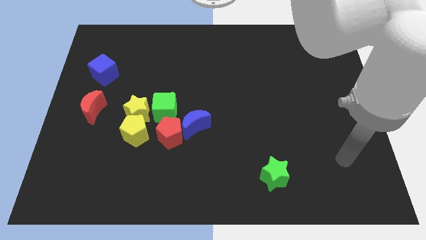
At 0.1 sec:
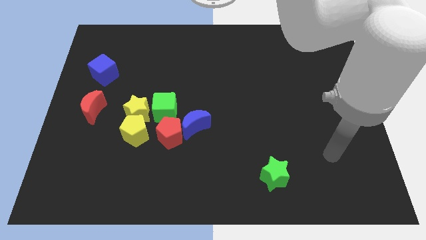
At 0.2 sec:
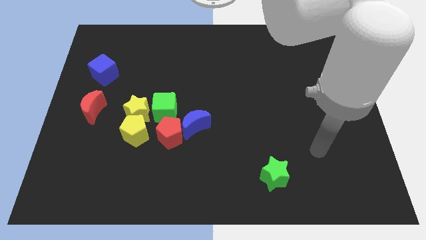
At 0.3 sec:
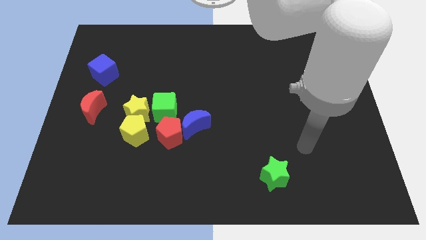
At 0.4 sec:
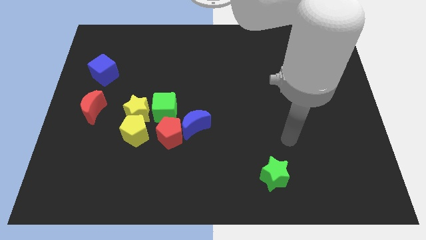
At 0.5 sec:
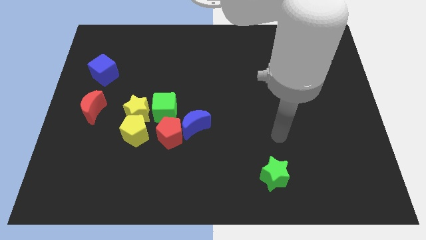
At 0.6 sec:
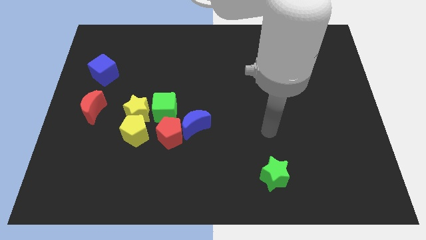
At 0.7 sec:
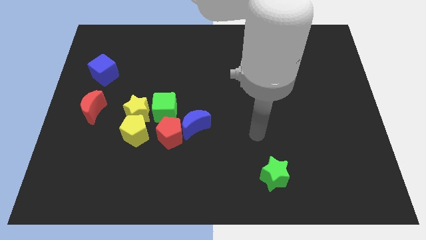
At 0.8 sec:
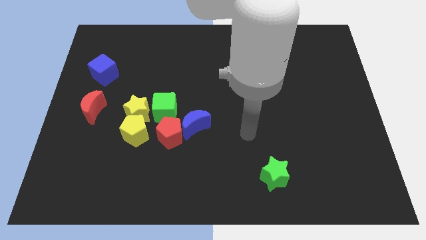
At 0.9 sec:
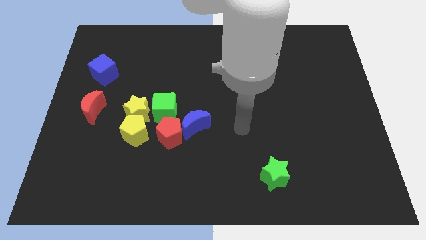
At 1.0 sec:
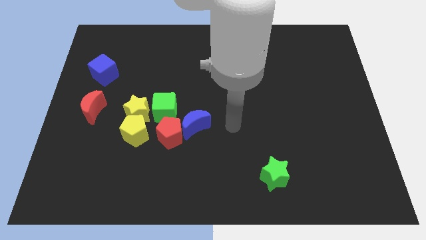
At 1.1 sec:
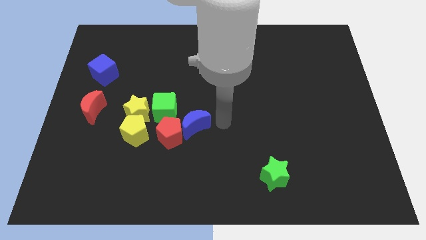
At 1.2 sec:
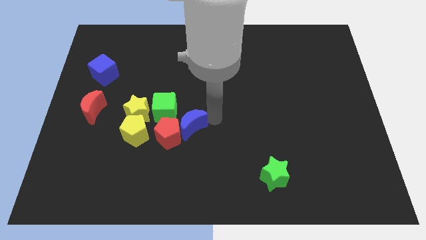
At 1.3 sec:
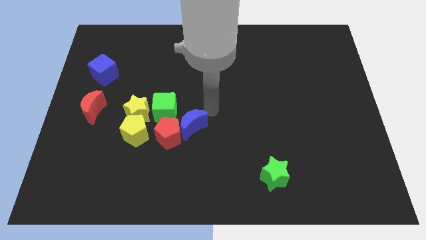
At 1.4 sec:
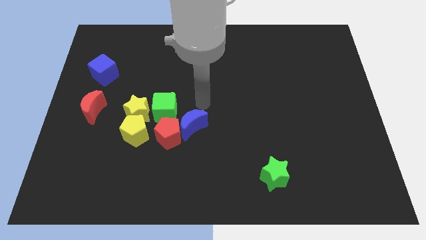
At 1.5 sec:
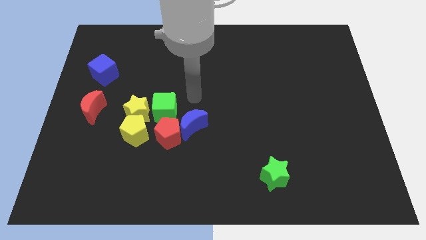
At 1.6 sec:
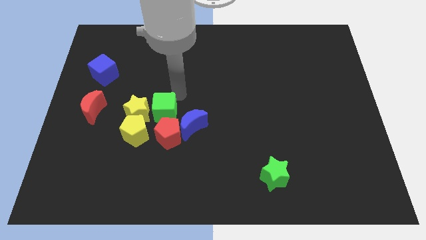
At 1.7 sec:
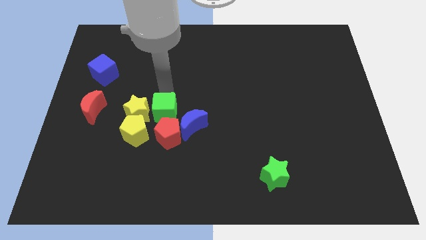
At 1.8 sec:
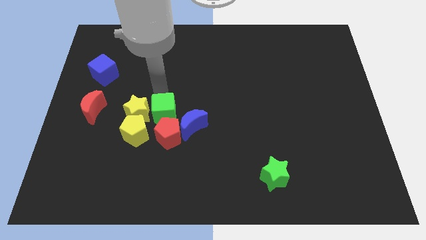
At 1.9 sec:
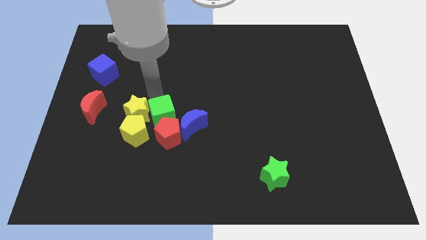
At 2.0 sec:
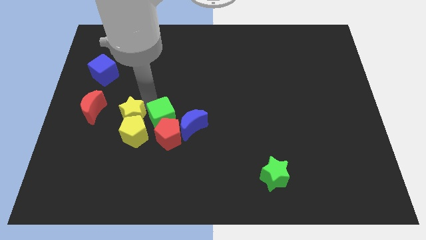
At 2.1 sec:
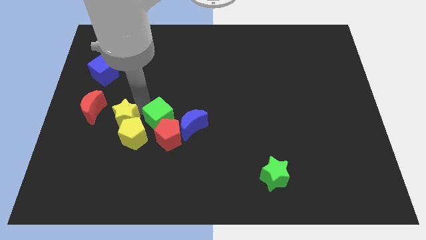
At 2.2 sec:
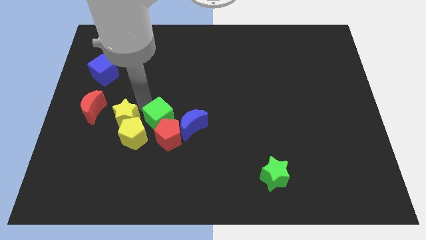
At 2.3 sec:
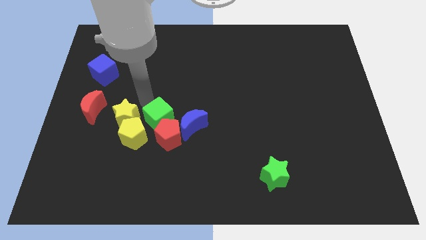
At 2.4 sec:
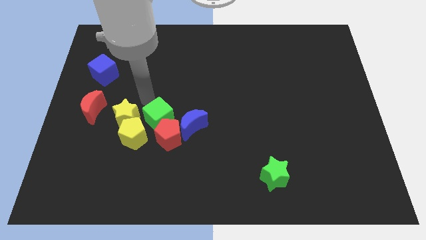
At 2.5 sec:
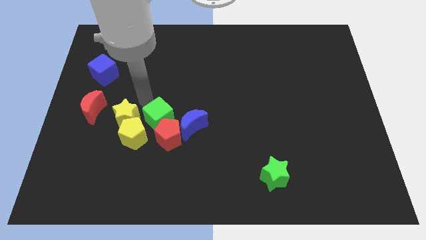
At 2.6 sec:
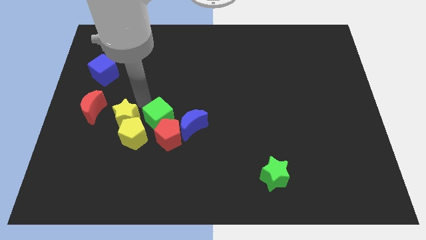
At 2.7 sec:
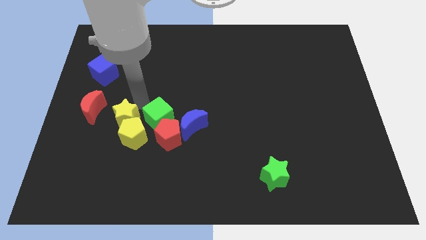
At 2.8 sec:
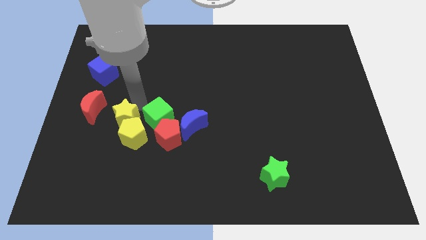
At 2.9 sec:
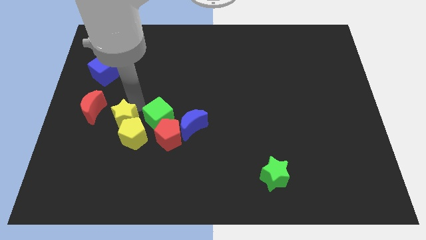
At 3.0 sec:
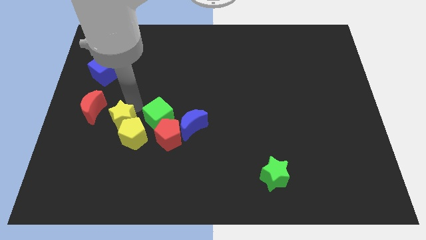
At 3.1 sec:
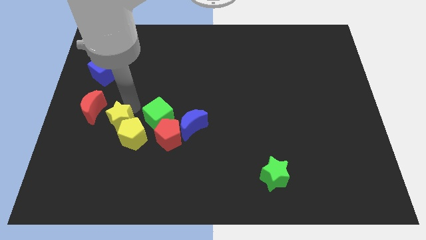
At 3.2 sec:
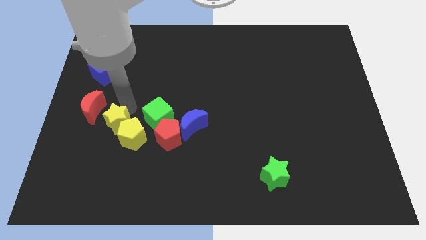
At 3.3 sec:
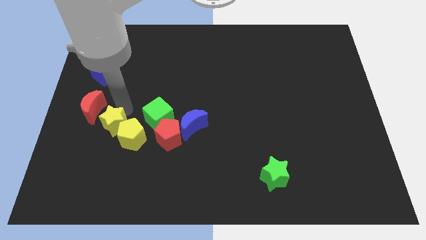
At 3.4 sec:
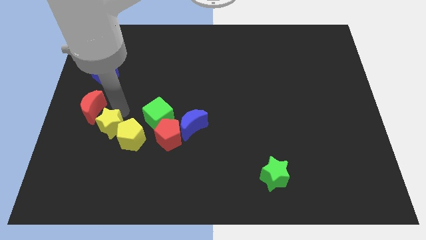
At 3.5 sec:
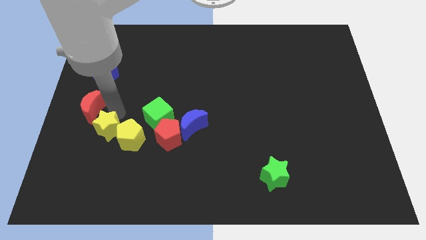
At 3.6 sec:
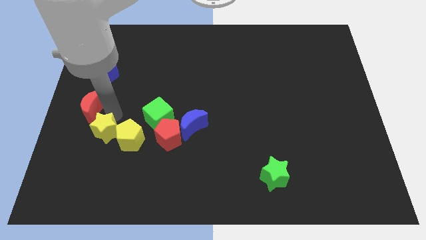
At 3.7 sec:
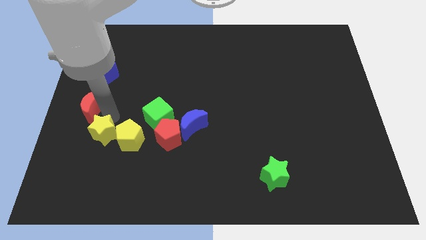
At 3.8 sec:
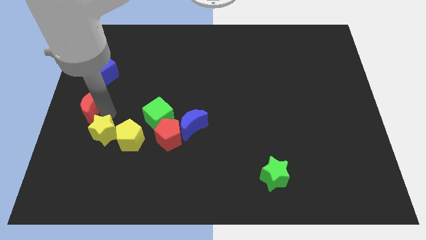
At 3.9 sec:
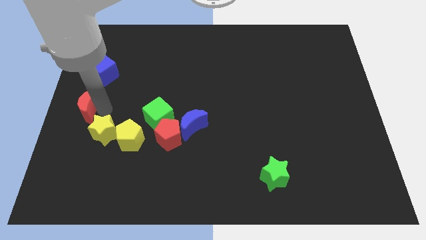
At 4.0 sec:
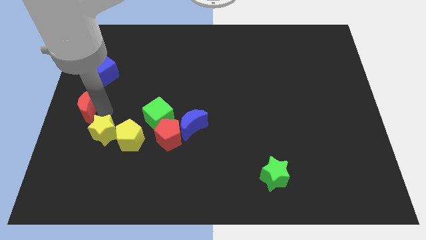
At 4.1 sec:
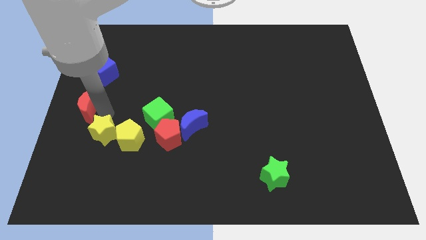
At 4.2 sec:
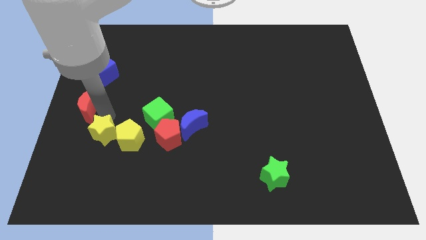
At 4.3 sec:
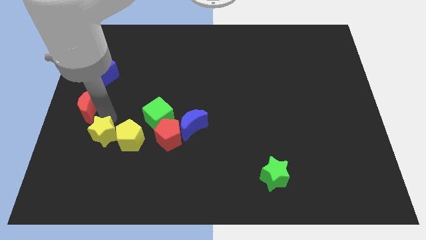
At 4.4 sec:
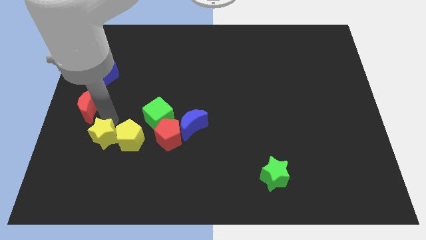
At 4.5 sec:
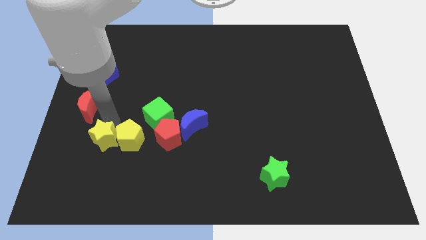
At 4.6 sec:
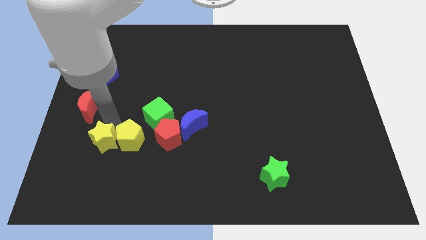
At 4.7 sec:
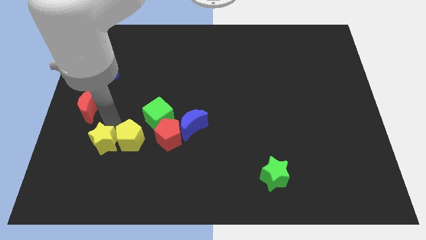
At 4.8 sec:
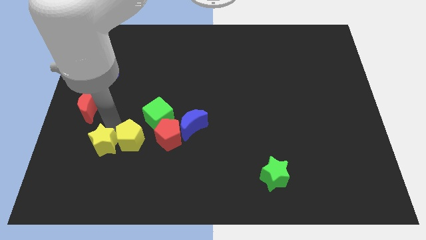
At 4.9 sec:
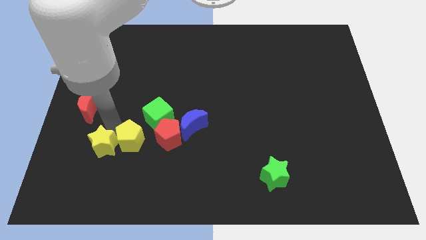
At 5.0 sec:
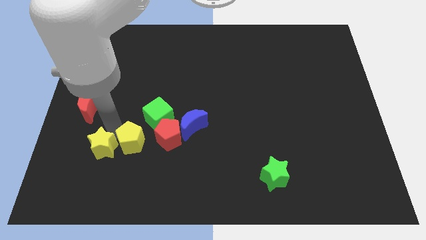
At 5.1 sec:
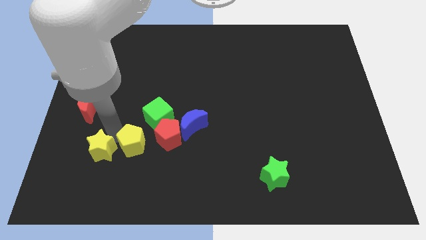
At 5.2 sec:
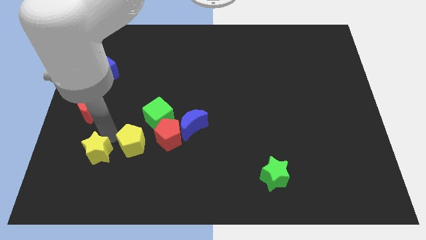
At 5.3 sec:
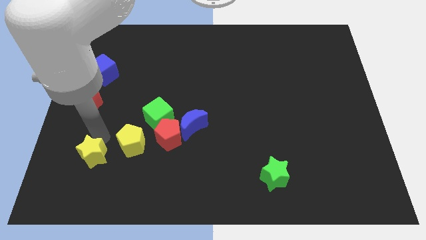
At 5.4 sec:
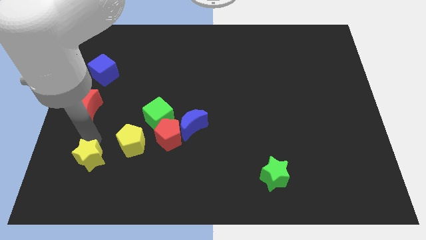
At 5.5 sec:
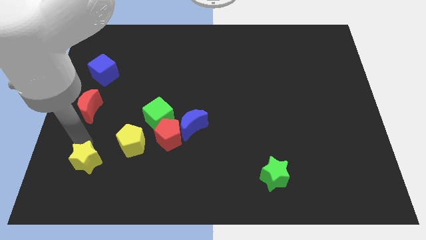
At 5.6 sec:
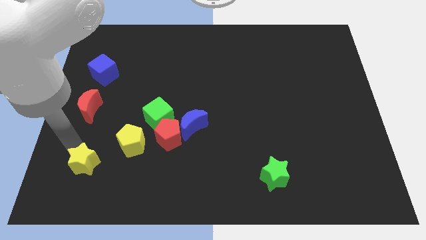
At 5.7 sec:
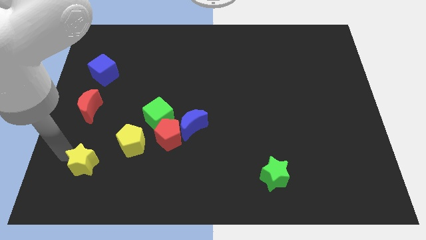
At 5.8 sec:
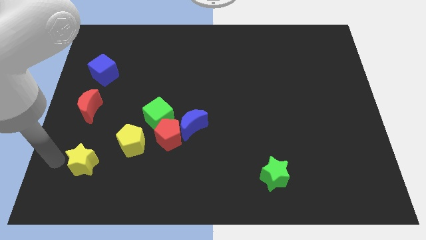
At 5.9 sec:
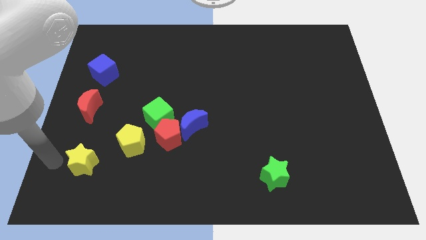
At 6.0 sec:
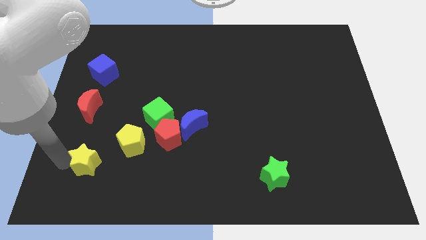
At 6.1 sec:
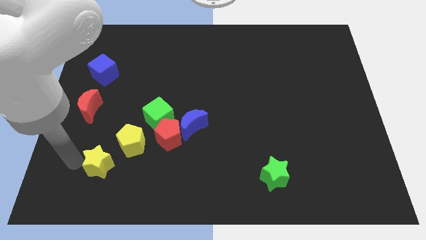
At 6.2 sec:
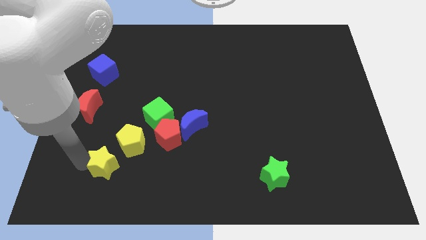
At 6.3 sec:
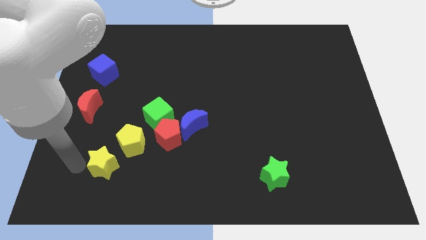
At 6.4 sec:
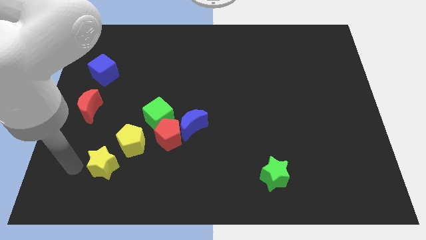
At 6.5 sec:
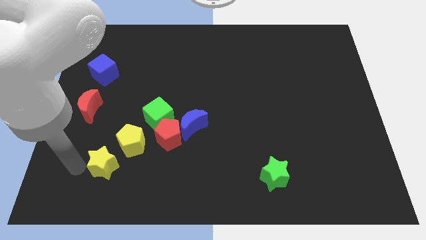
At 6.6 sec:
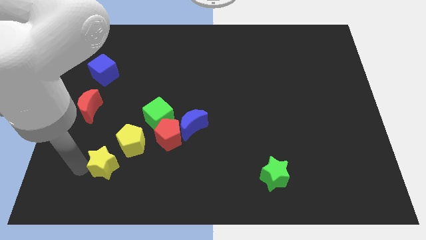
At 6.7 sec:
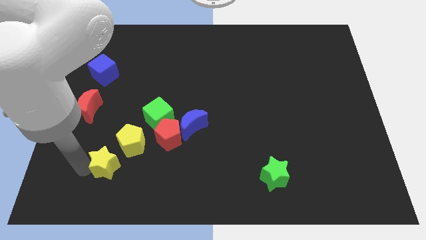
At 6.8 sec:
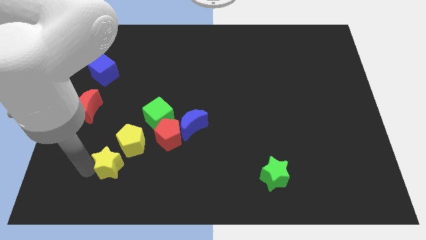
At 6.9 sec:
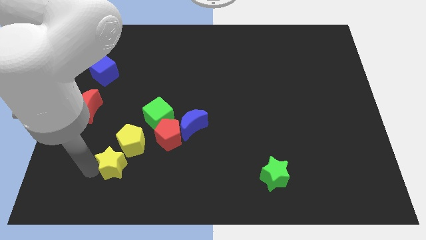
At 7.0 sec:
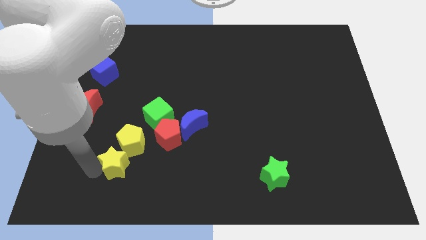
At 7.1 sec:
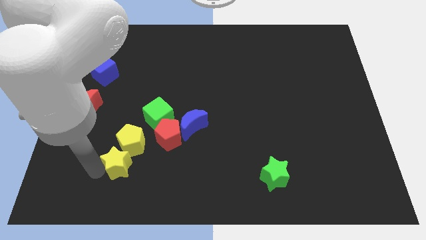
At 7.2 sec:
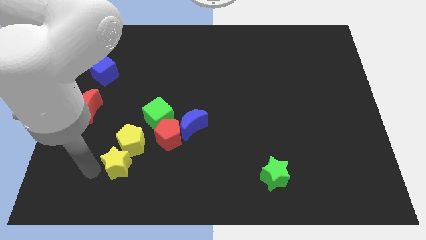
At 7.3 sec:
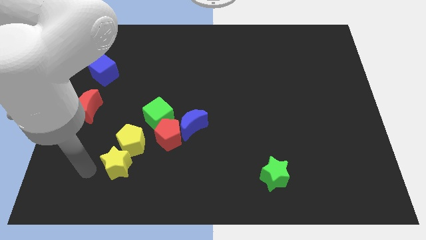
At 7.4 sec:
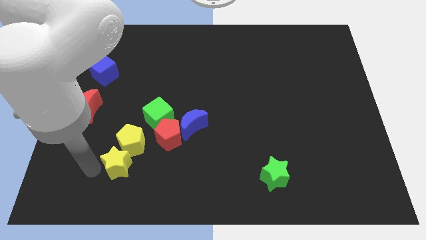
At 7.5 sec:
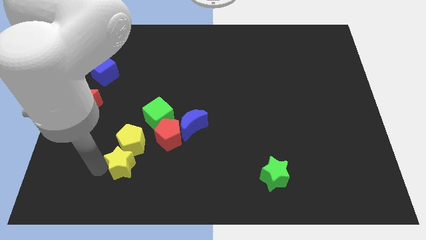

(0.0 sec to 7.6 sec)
slide the yellow star to the bottom right of the yellow pentagon
